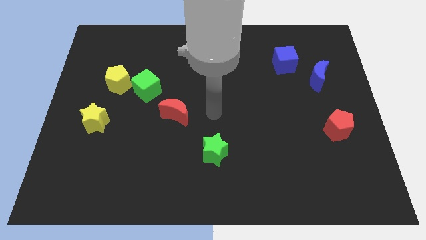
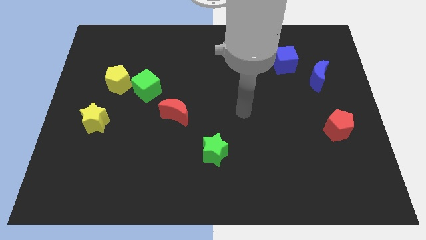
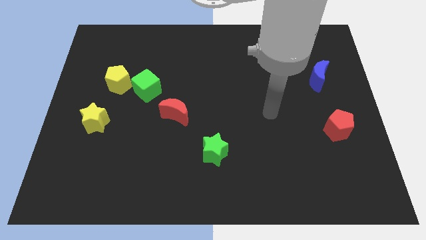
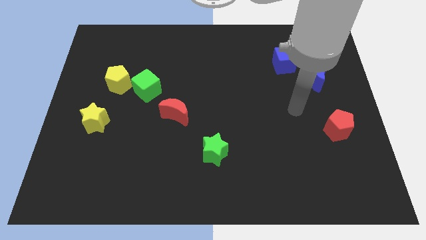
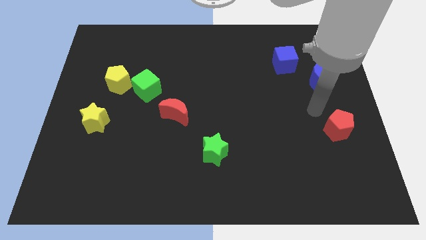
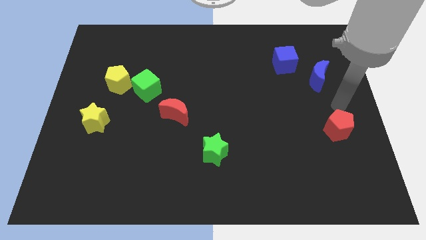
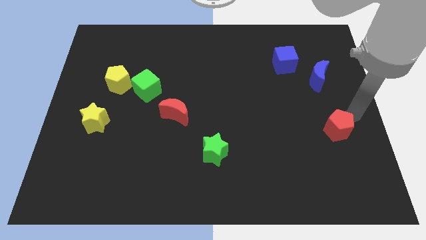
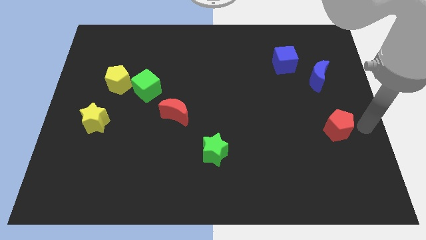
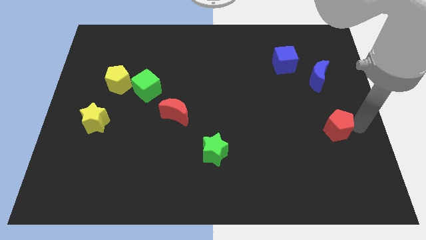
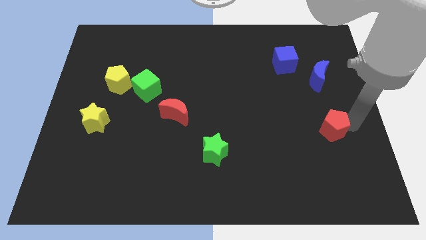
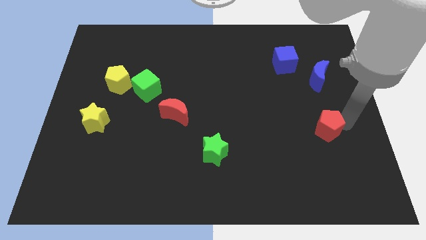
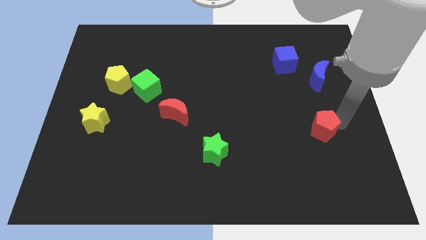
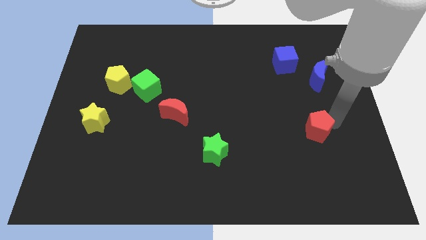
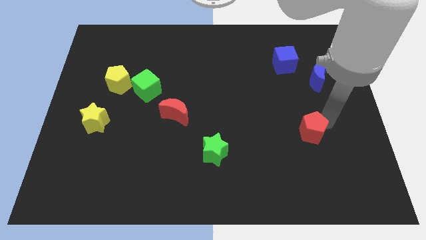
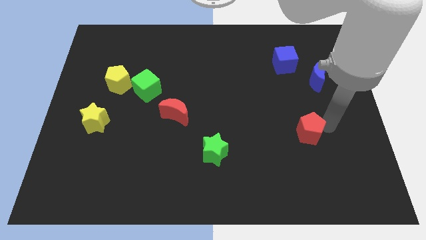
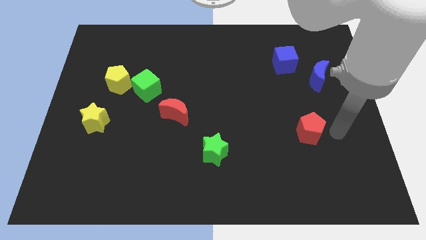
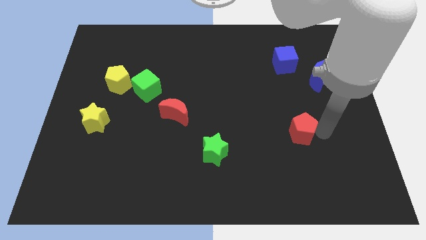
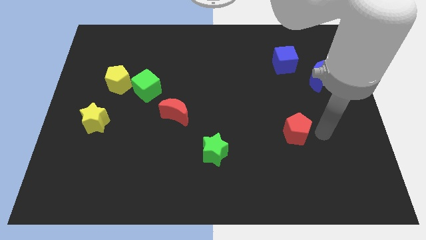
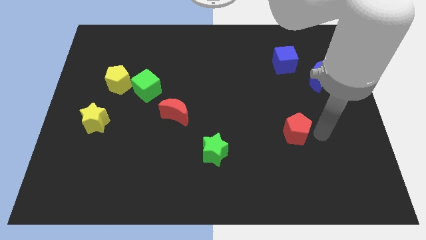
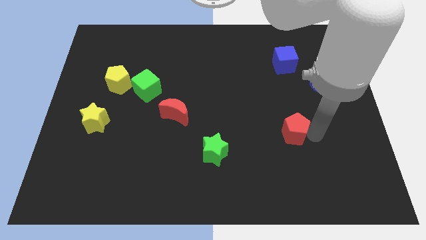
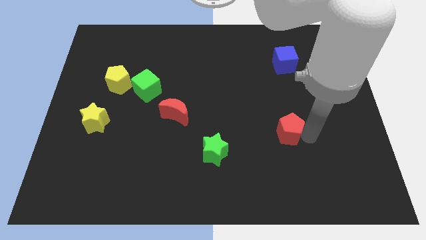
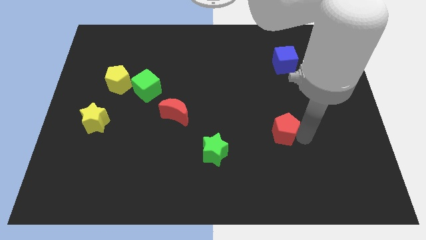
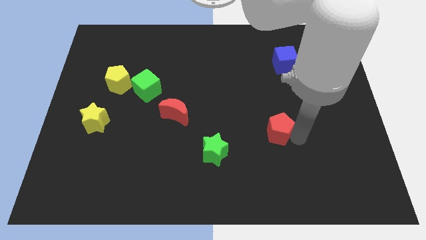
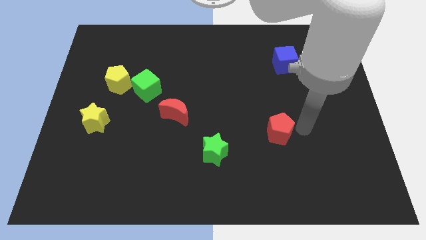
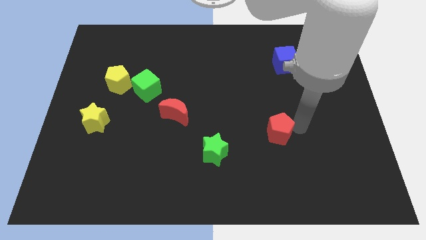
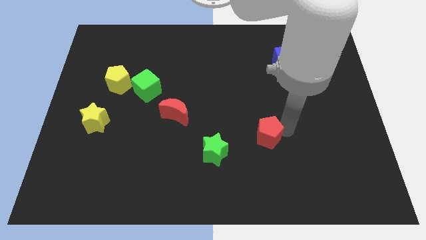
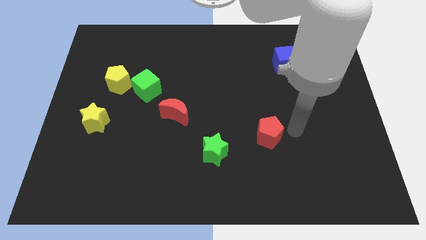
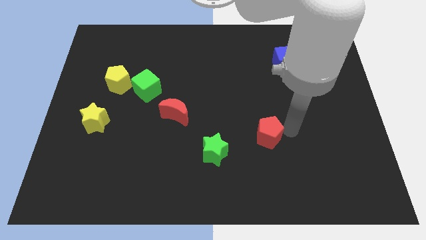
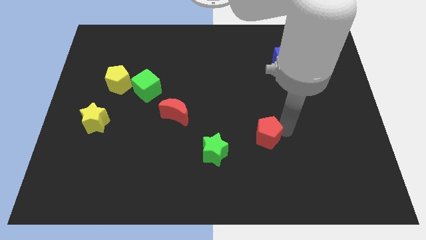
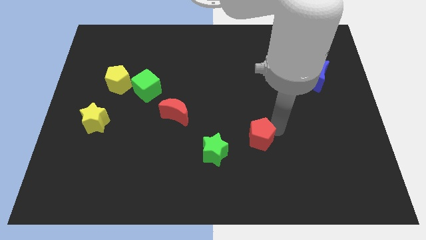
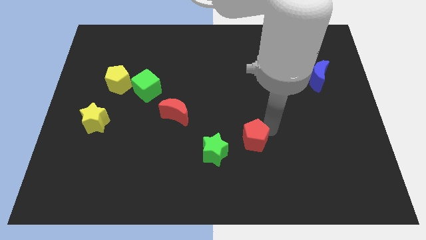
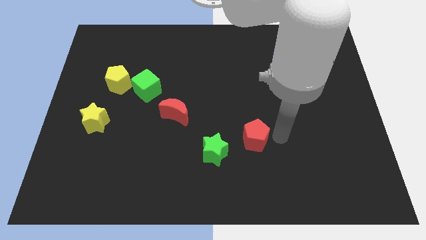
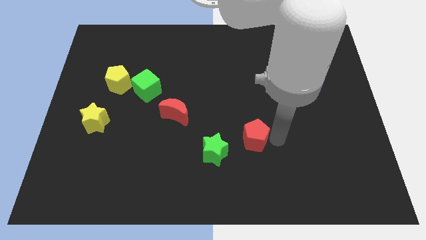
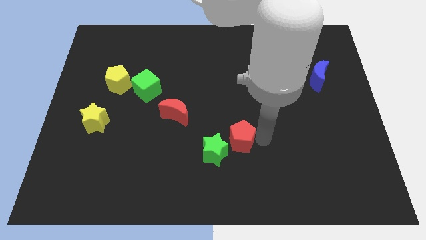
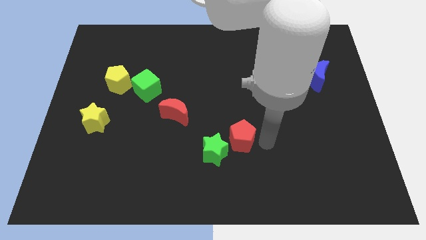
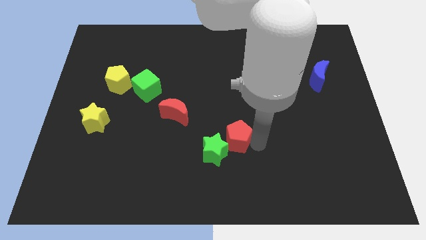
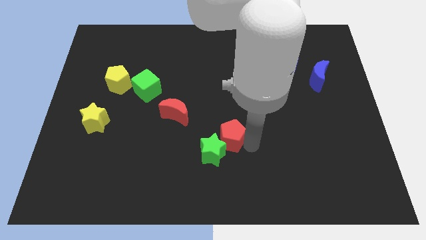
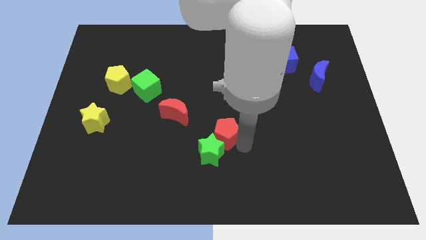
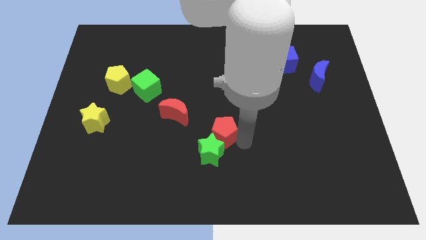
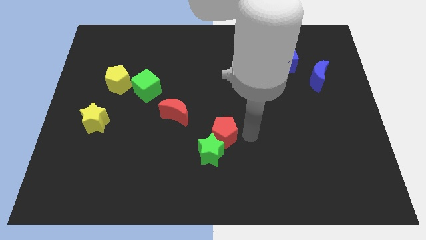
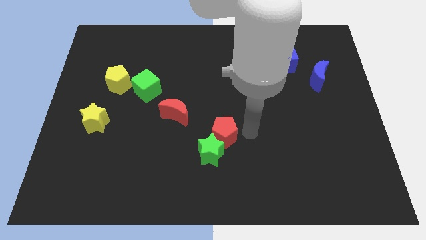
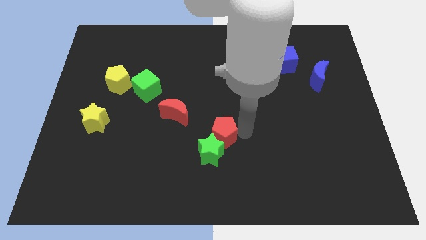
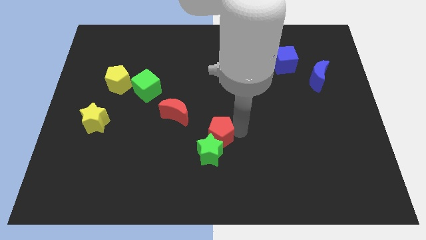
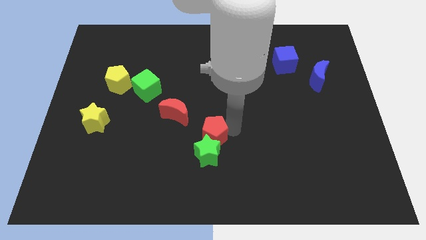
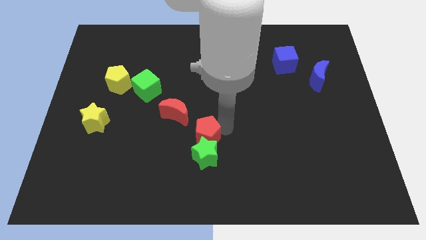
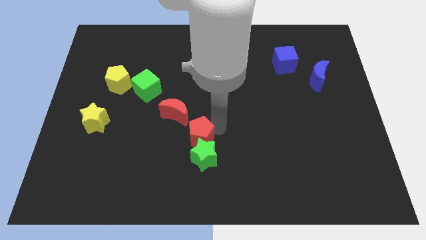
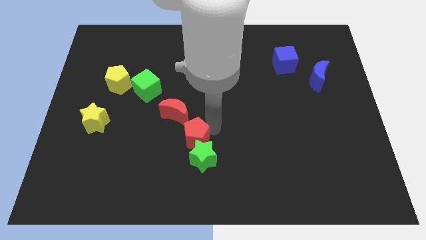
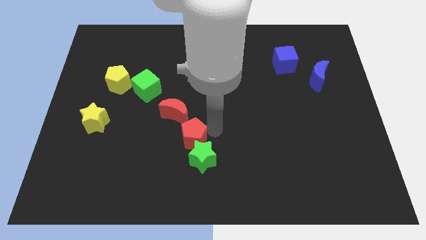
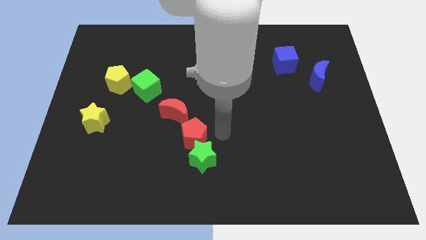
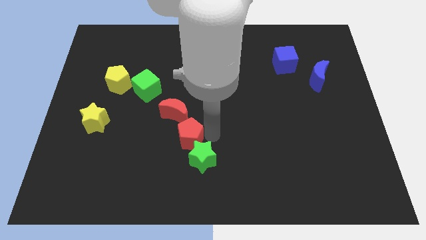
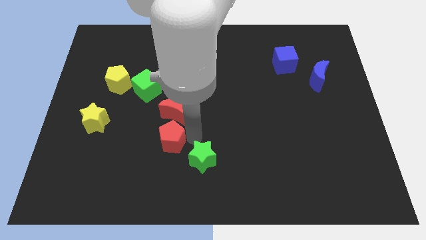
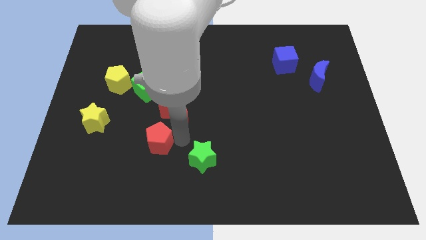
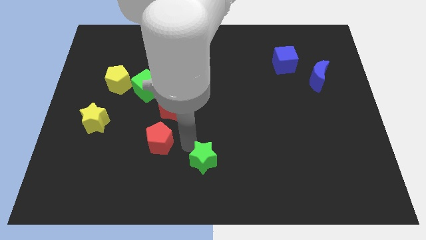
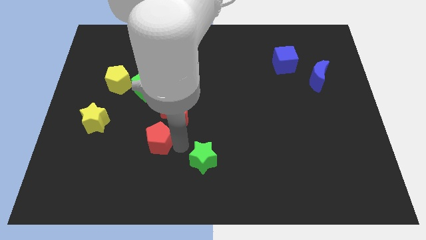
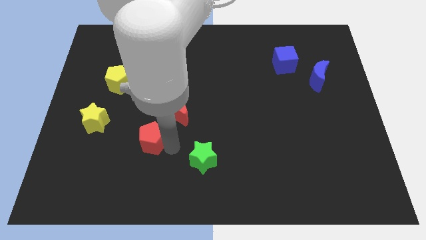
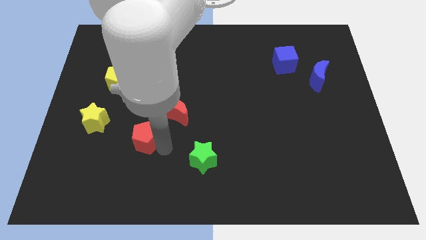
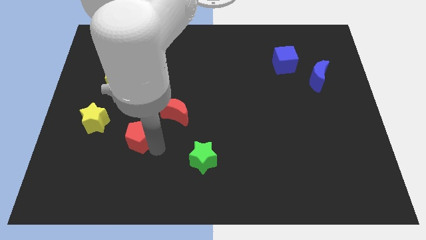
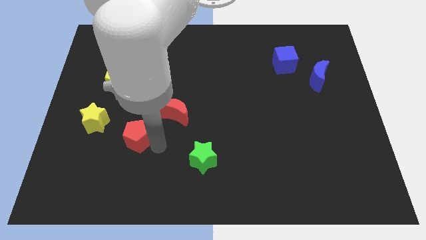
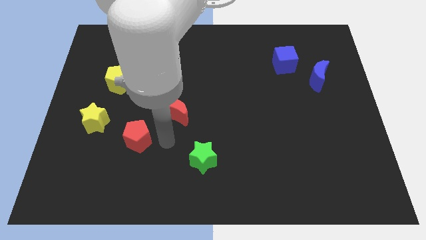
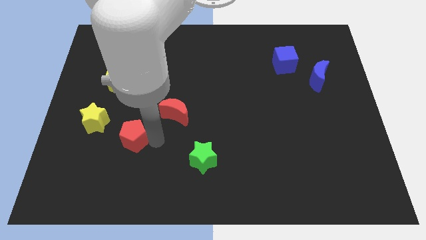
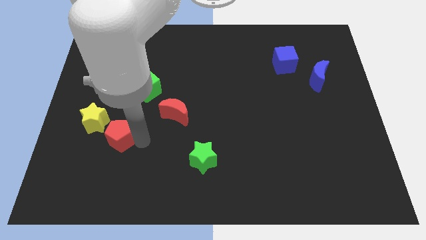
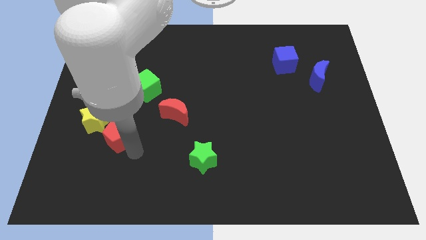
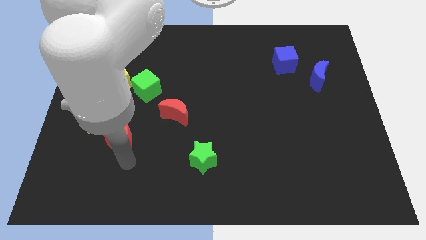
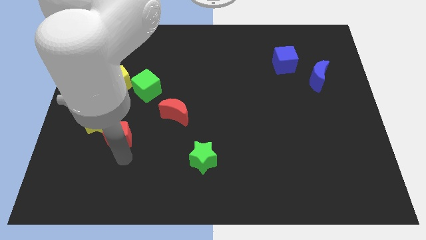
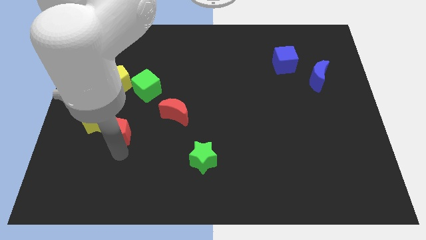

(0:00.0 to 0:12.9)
push the red pentagon to the bottom of the yellow pentagon

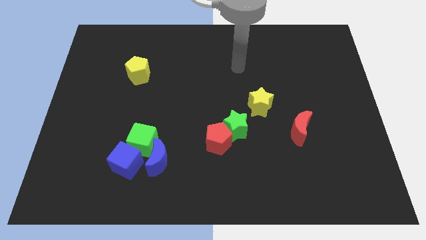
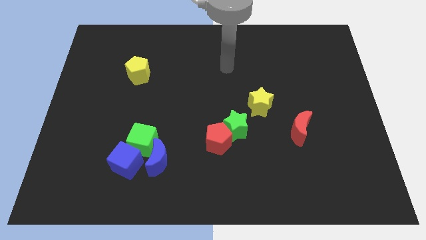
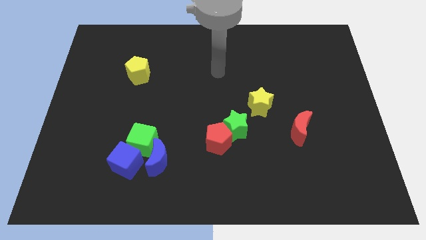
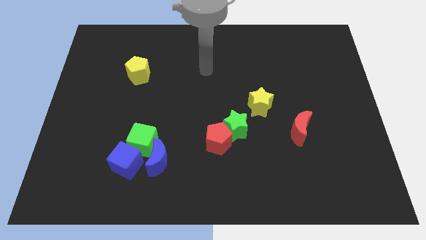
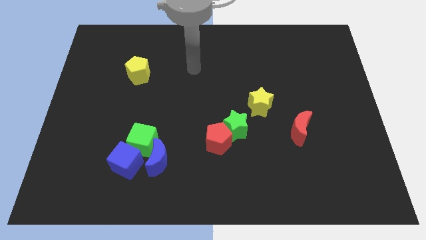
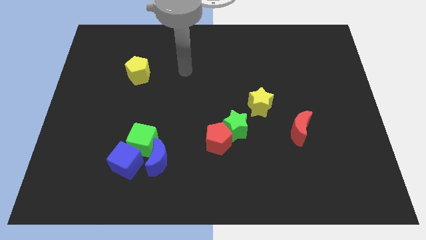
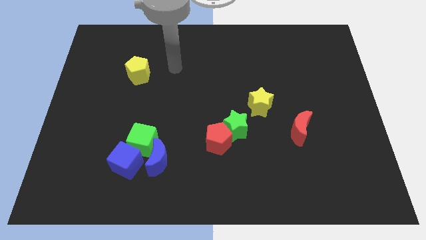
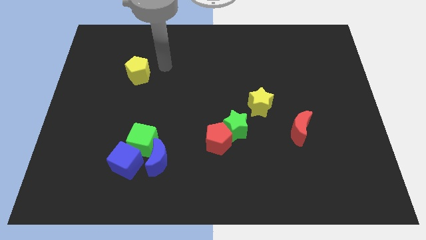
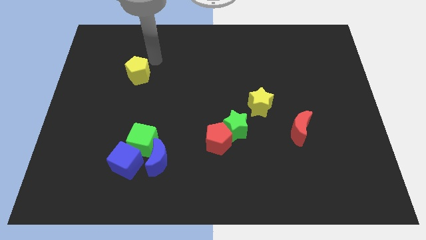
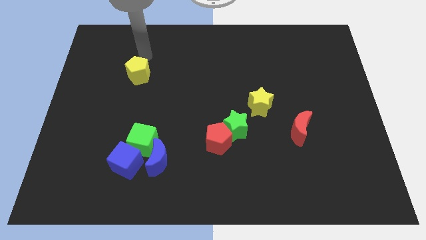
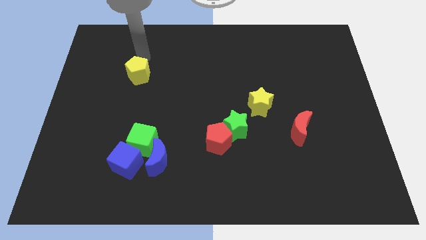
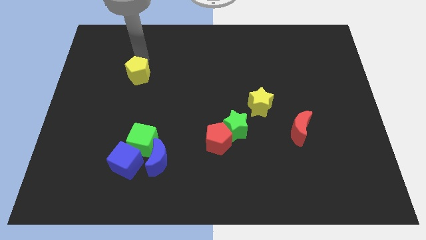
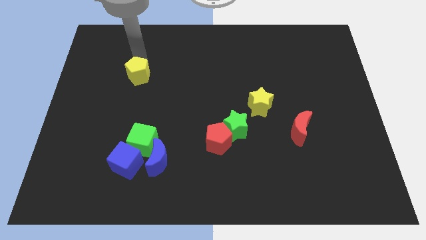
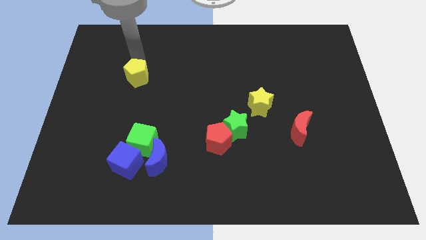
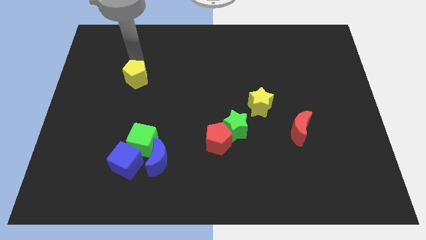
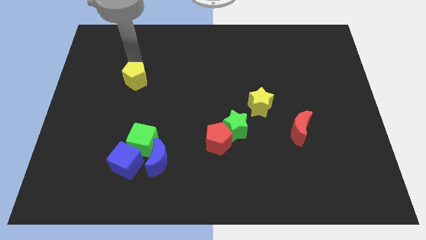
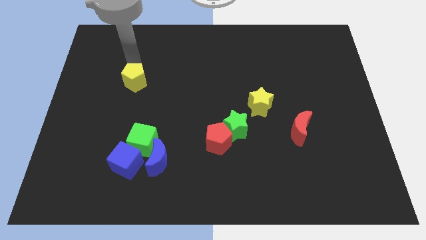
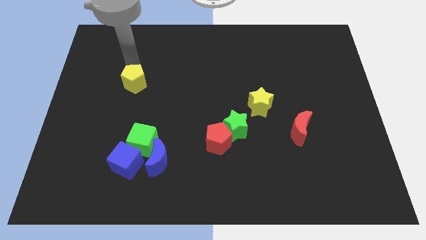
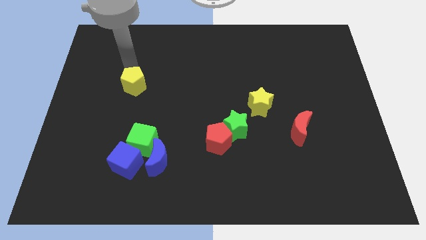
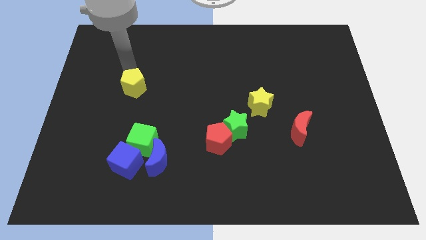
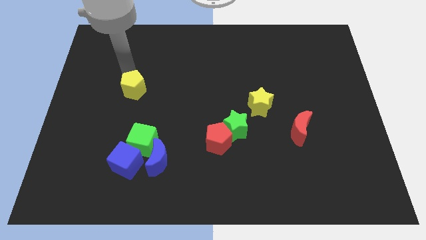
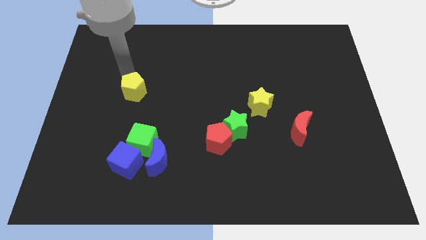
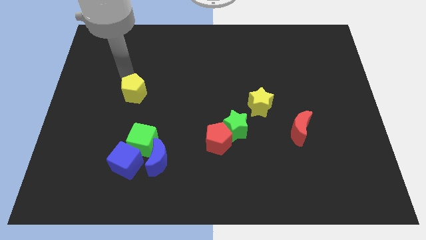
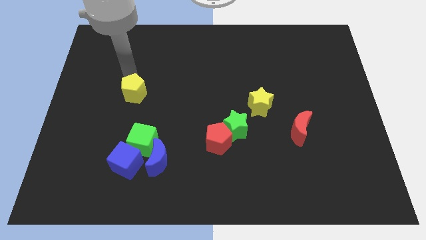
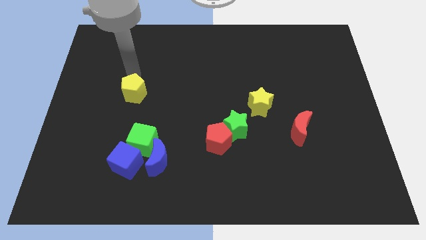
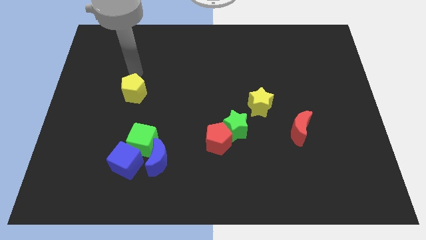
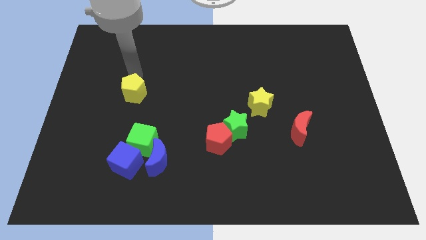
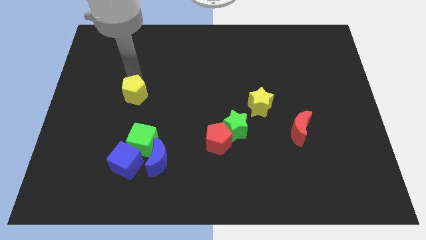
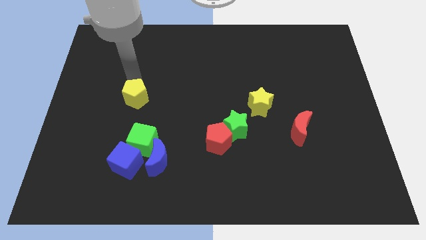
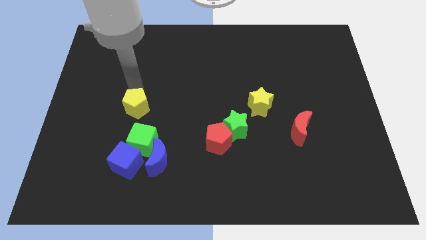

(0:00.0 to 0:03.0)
put the yellow pentagon to the top of the blue cube
